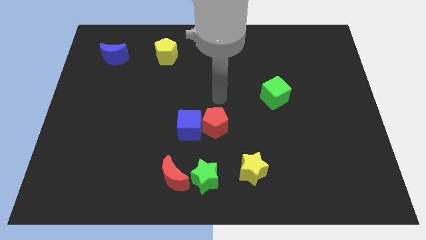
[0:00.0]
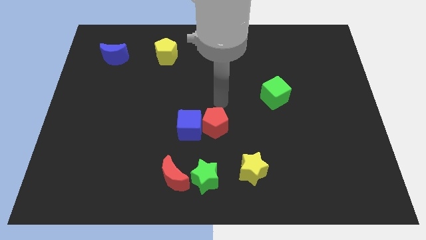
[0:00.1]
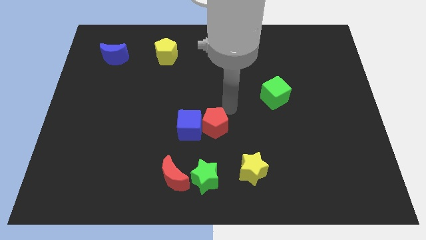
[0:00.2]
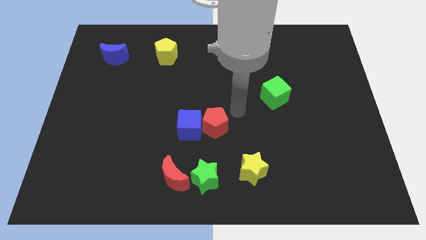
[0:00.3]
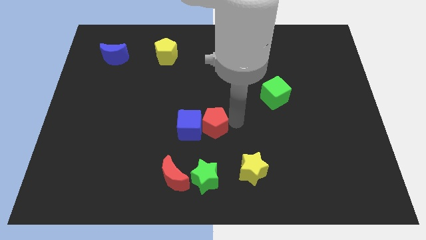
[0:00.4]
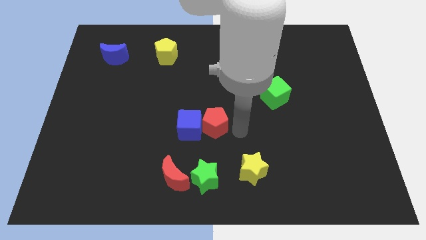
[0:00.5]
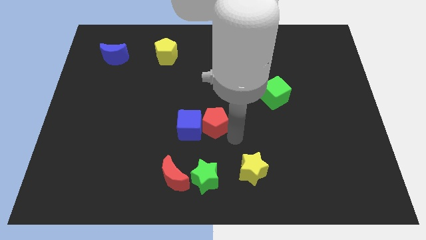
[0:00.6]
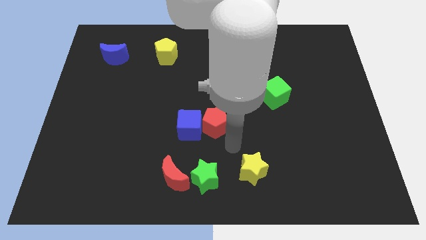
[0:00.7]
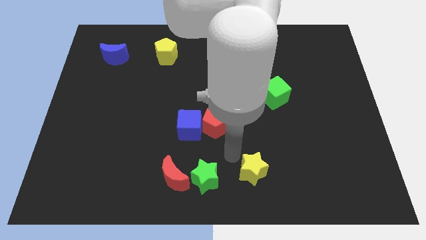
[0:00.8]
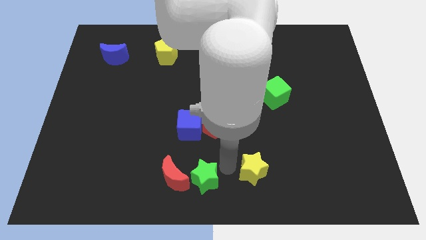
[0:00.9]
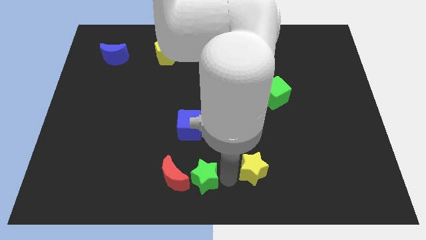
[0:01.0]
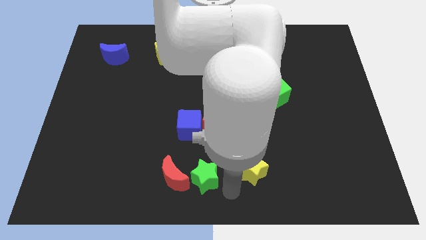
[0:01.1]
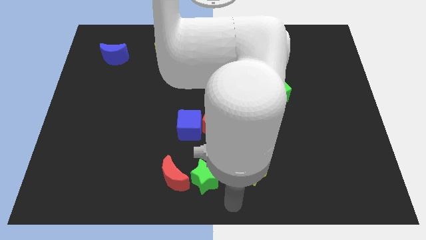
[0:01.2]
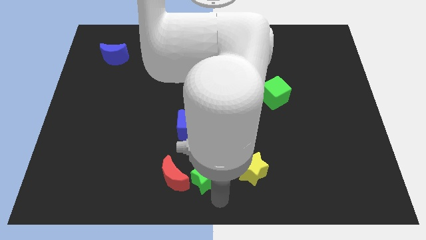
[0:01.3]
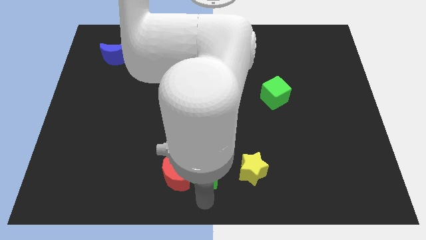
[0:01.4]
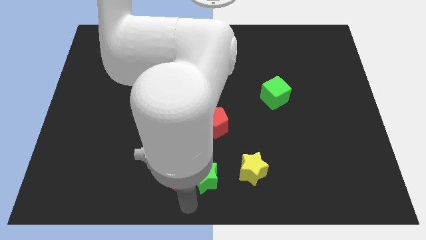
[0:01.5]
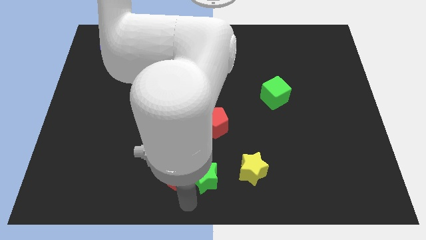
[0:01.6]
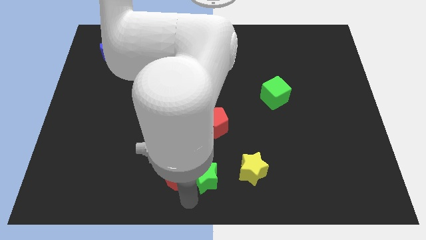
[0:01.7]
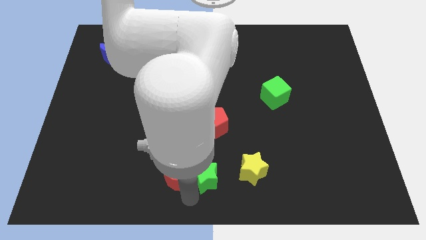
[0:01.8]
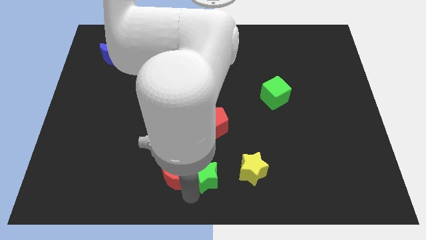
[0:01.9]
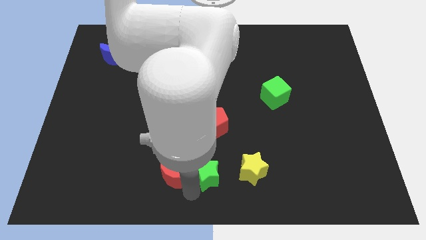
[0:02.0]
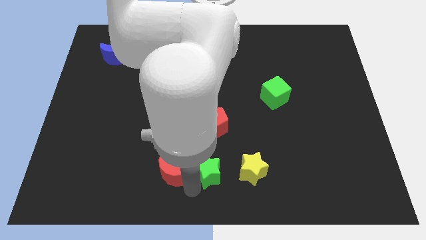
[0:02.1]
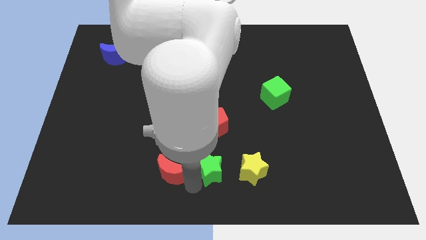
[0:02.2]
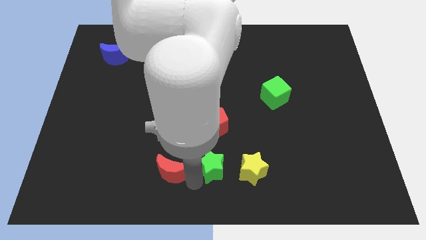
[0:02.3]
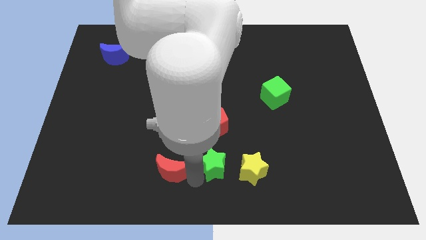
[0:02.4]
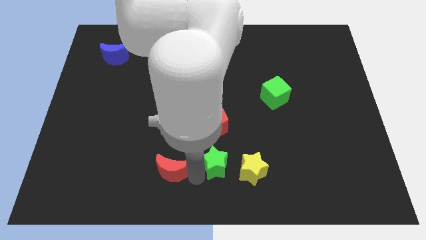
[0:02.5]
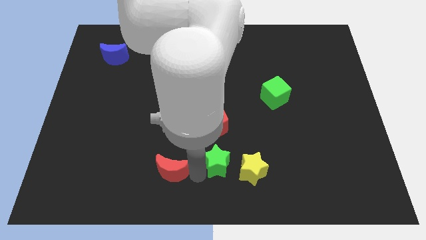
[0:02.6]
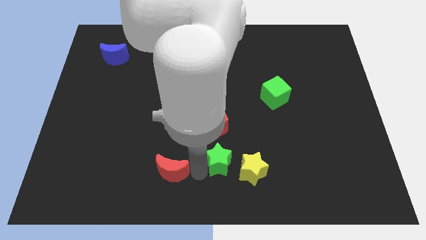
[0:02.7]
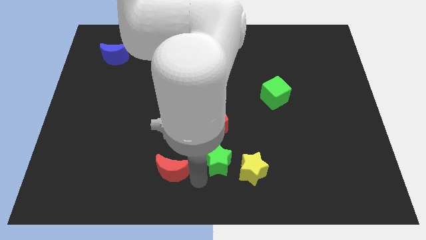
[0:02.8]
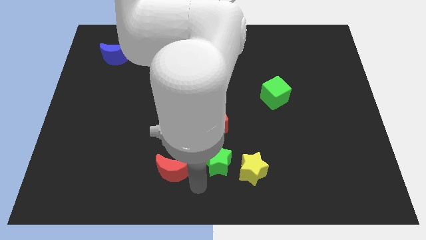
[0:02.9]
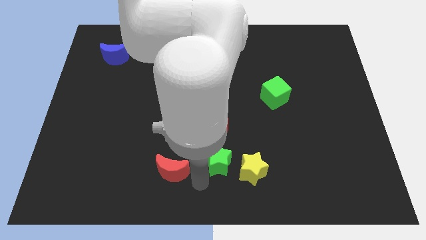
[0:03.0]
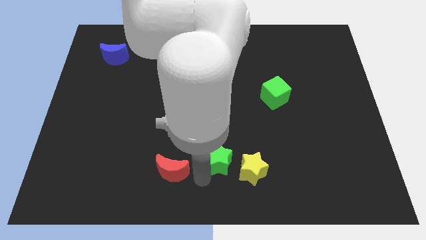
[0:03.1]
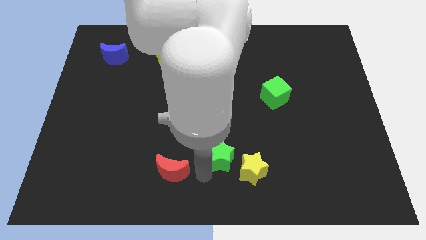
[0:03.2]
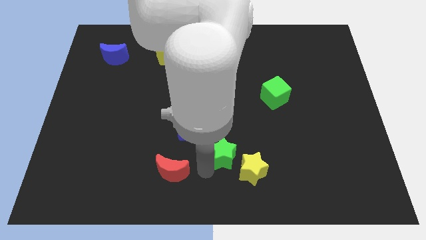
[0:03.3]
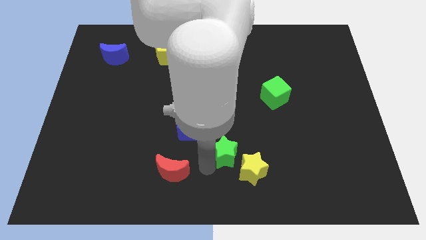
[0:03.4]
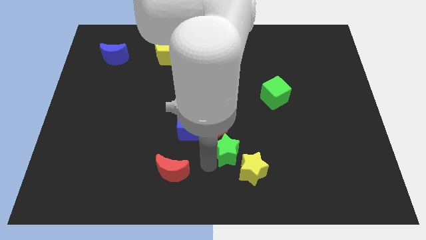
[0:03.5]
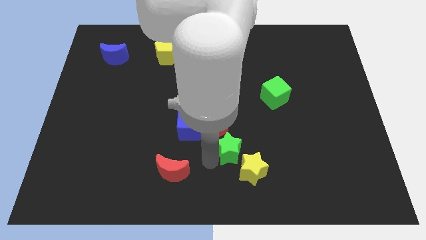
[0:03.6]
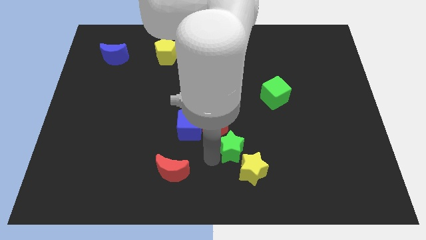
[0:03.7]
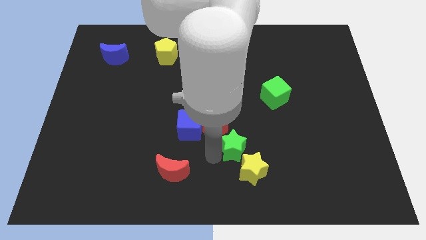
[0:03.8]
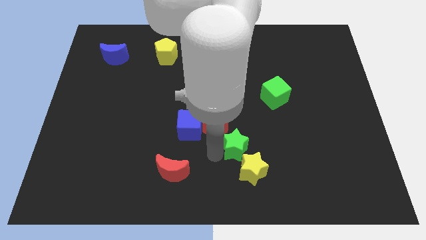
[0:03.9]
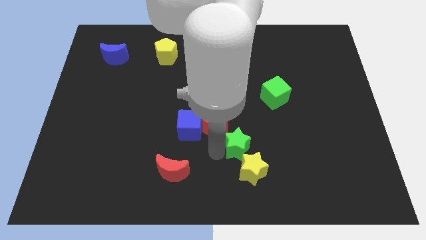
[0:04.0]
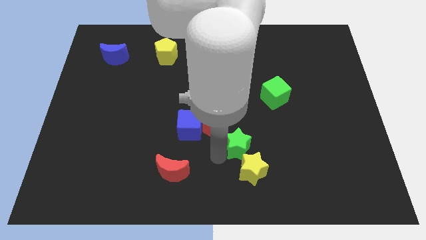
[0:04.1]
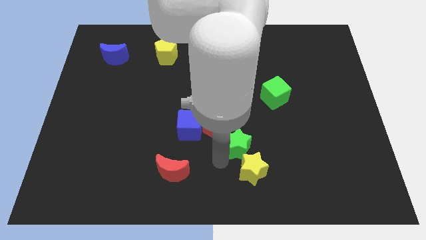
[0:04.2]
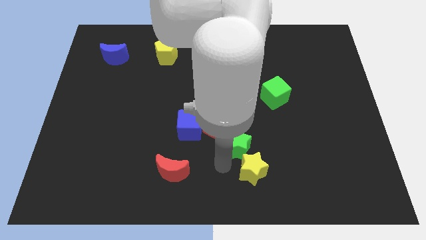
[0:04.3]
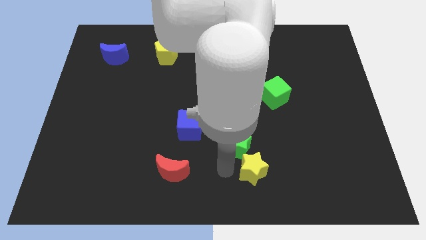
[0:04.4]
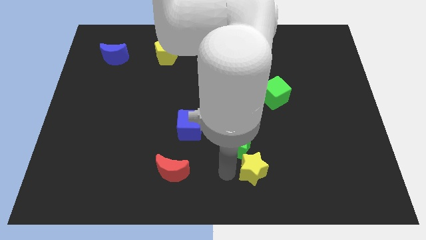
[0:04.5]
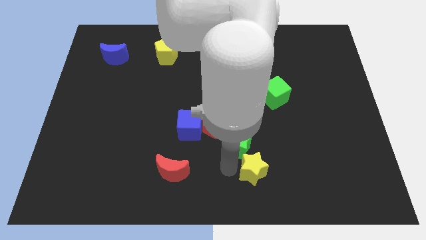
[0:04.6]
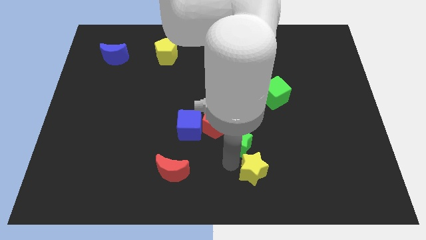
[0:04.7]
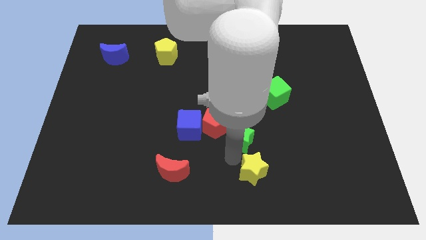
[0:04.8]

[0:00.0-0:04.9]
move the green star to the middle of the board

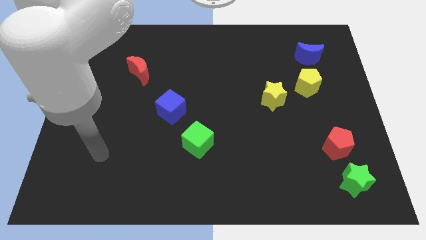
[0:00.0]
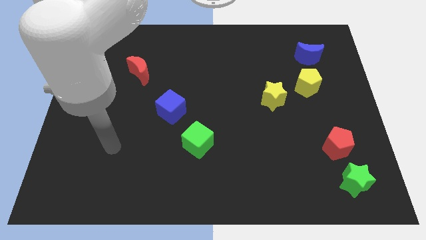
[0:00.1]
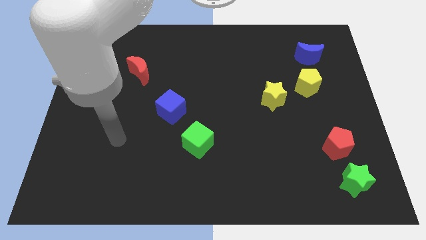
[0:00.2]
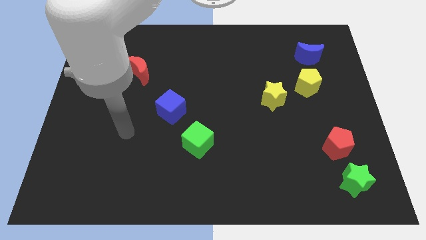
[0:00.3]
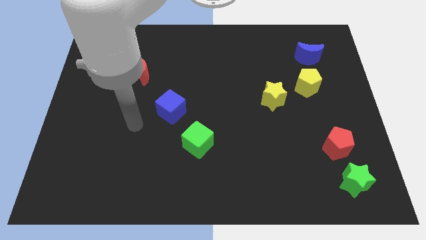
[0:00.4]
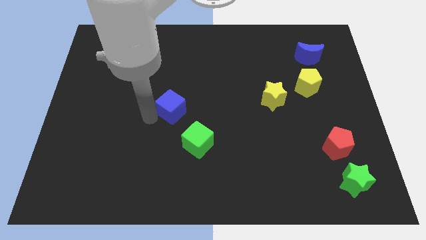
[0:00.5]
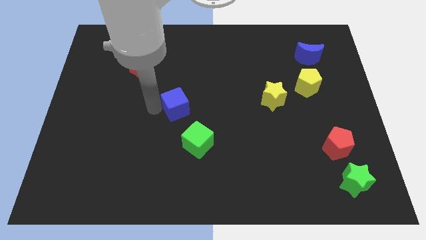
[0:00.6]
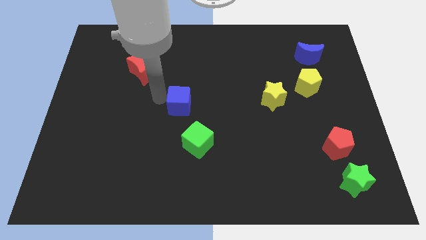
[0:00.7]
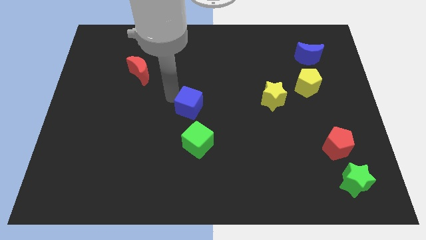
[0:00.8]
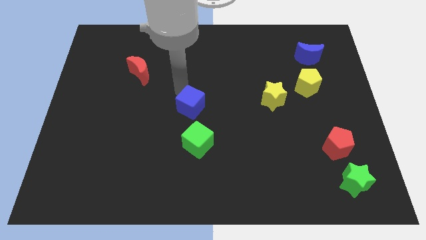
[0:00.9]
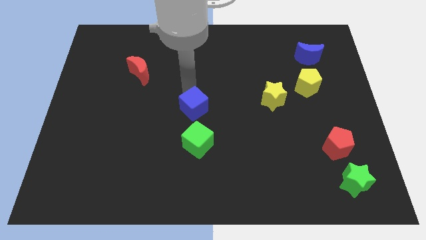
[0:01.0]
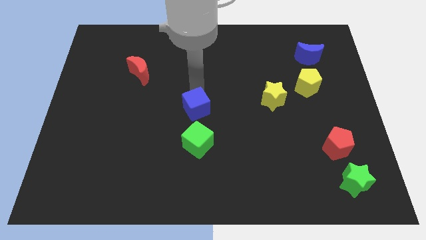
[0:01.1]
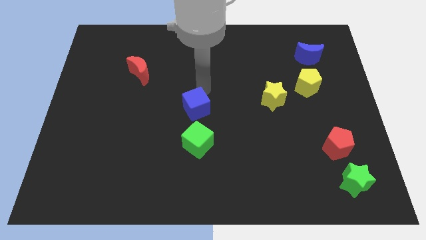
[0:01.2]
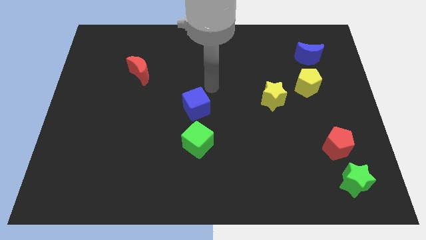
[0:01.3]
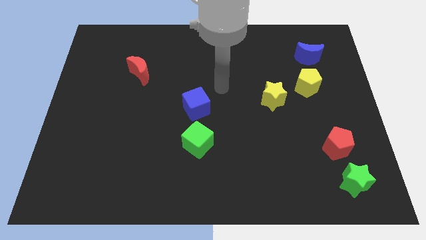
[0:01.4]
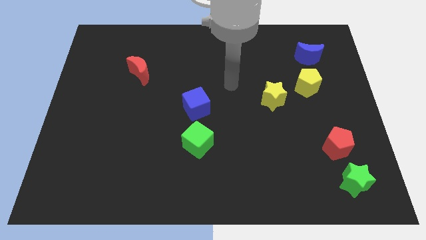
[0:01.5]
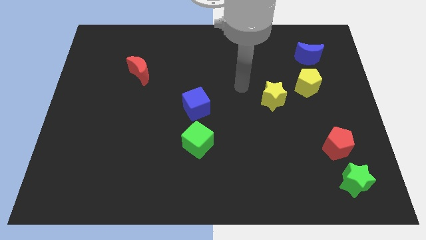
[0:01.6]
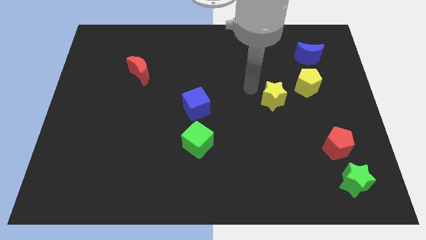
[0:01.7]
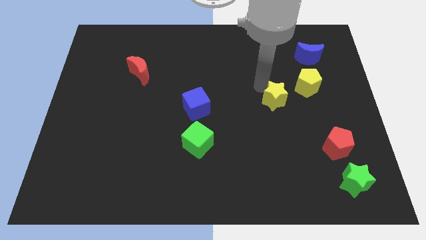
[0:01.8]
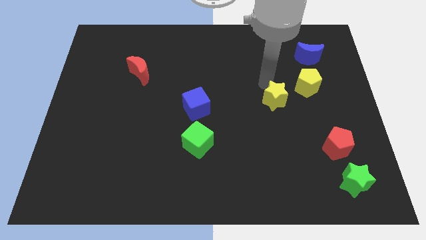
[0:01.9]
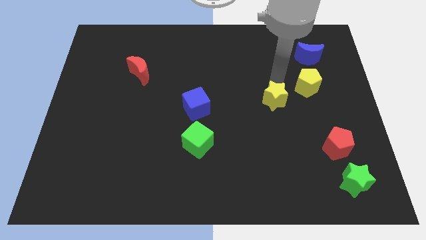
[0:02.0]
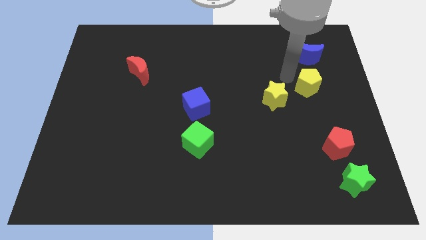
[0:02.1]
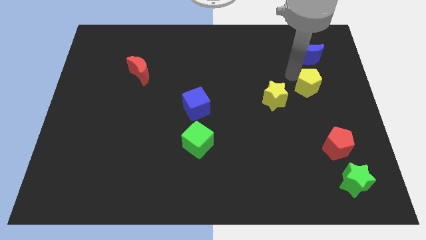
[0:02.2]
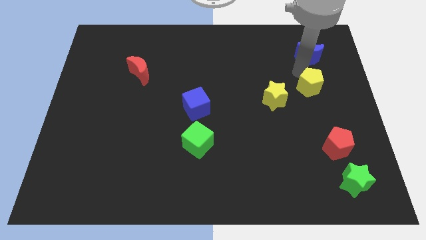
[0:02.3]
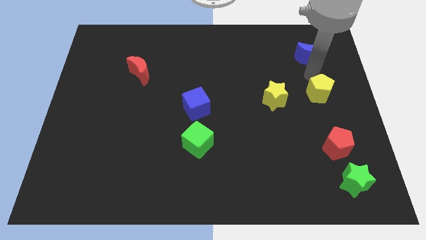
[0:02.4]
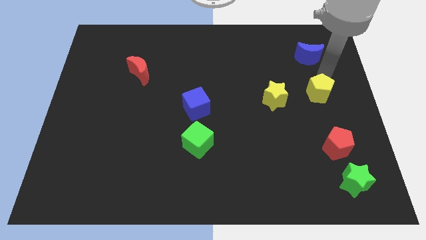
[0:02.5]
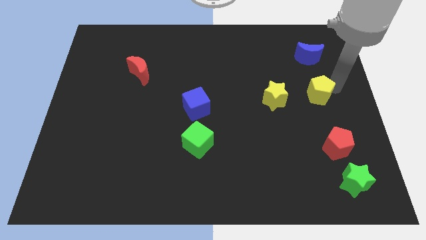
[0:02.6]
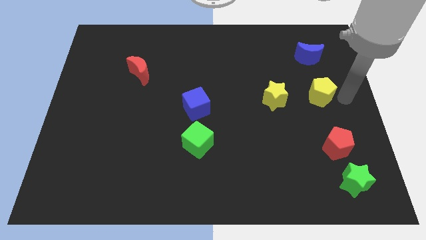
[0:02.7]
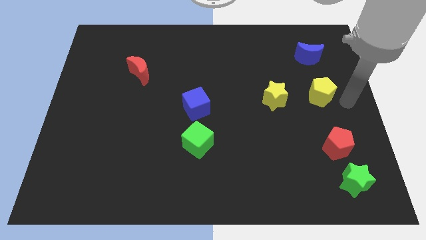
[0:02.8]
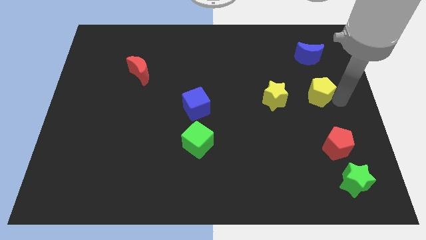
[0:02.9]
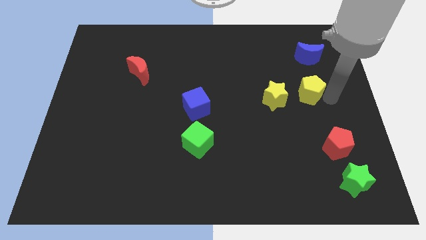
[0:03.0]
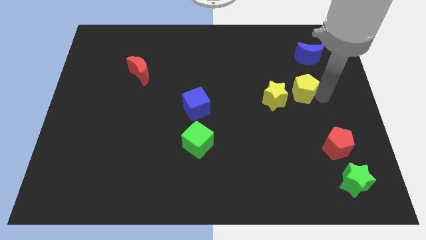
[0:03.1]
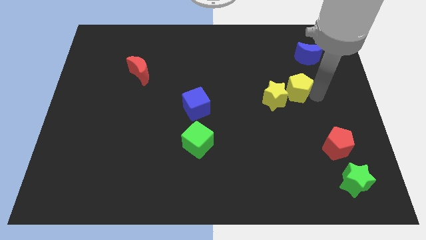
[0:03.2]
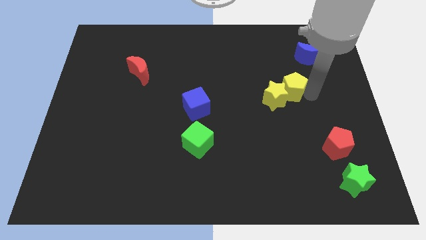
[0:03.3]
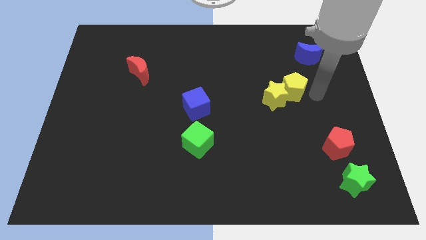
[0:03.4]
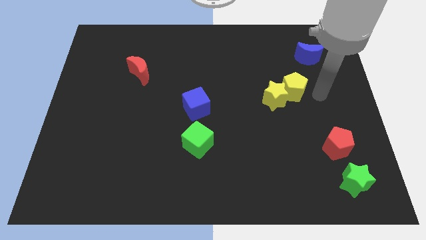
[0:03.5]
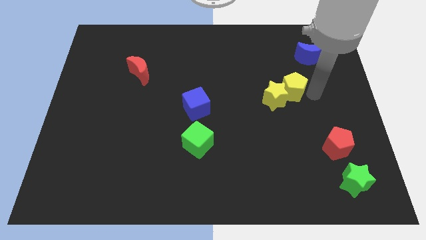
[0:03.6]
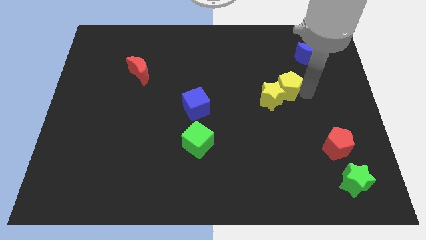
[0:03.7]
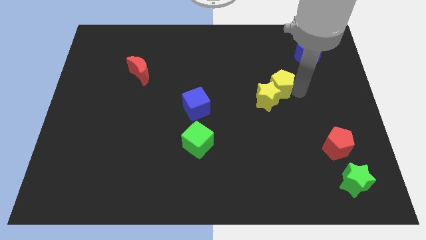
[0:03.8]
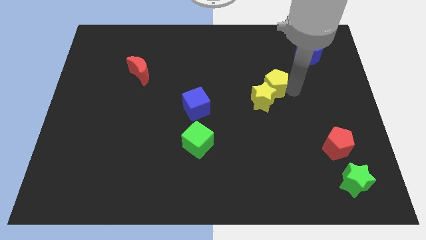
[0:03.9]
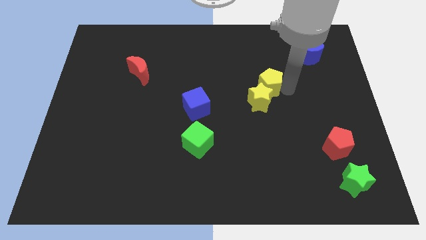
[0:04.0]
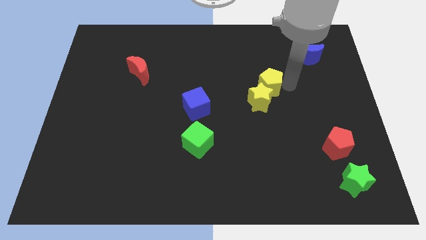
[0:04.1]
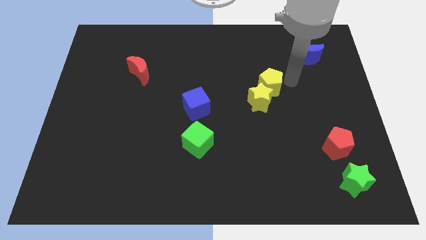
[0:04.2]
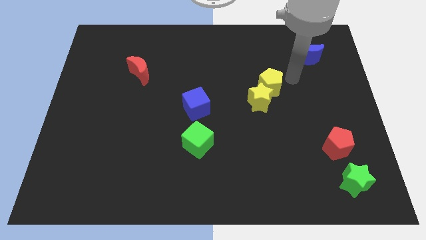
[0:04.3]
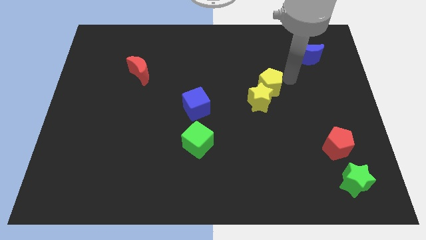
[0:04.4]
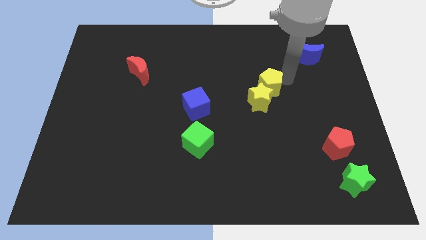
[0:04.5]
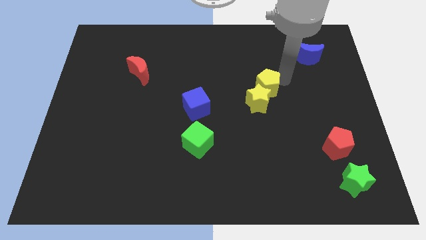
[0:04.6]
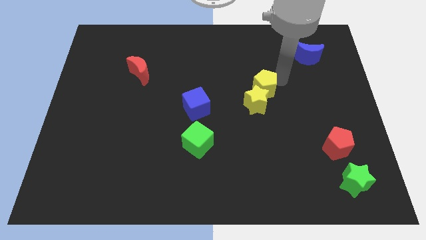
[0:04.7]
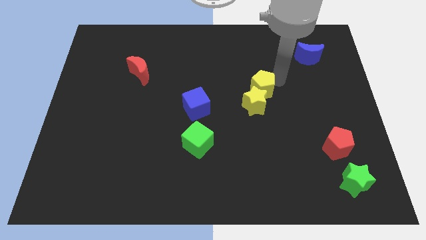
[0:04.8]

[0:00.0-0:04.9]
push the yellow pentagon to the center of the board
